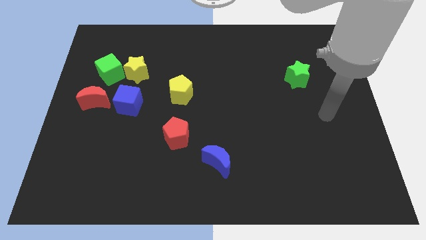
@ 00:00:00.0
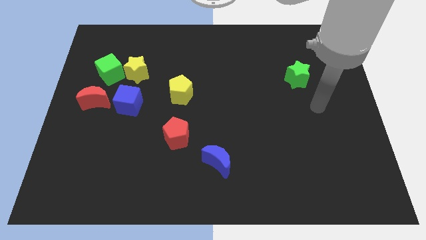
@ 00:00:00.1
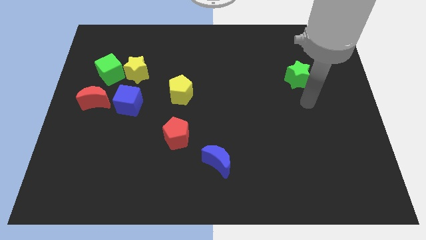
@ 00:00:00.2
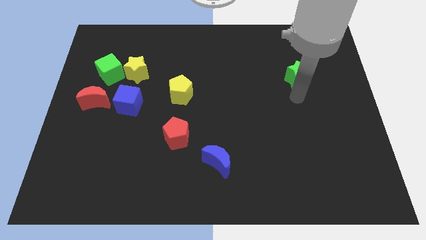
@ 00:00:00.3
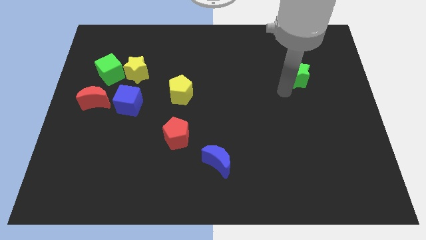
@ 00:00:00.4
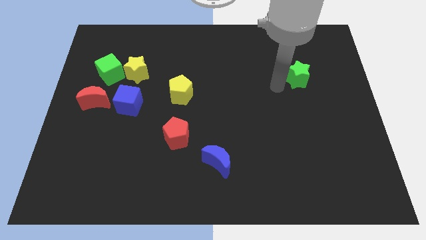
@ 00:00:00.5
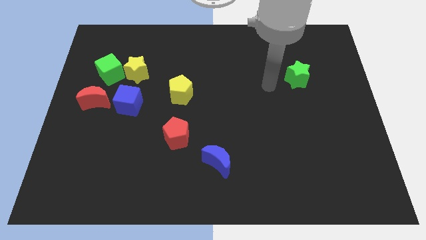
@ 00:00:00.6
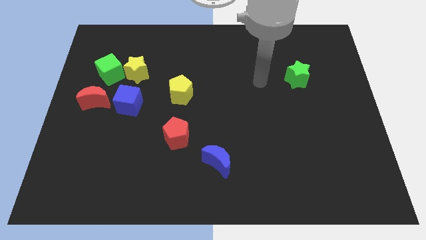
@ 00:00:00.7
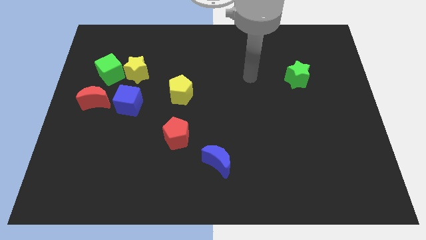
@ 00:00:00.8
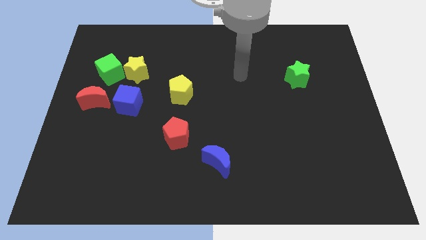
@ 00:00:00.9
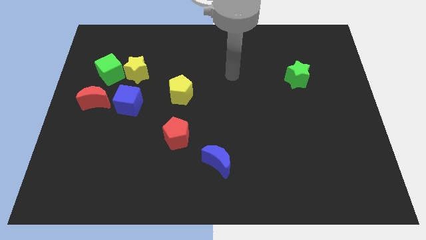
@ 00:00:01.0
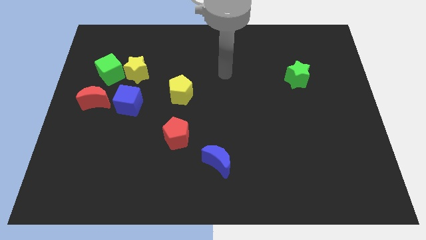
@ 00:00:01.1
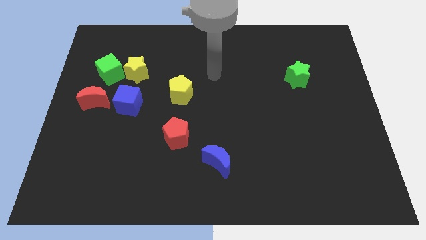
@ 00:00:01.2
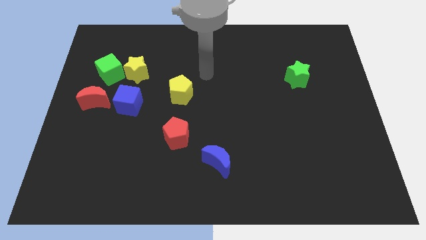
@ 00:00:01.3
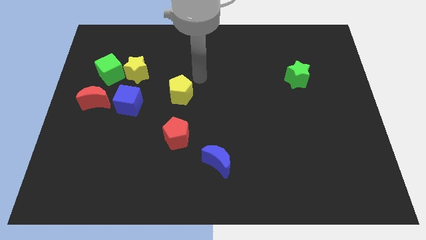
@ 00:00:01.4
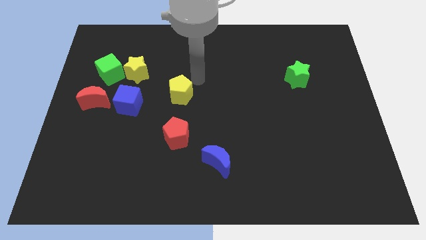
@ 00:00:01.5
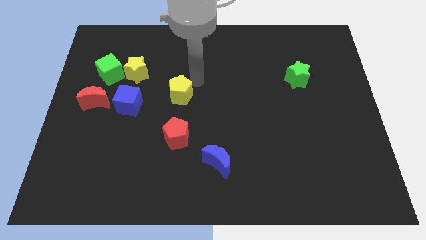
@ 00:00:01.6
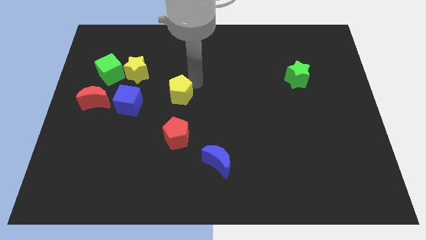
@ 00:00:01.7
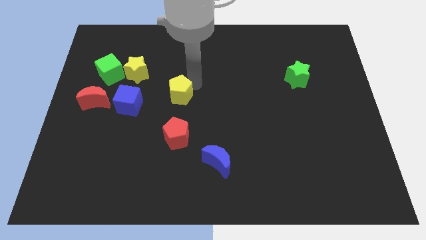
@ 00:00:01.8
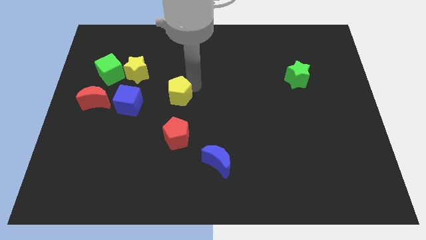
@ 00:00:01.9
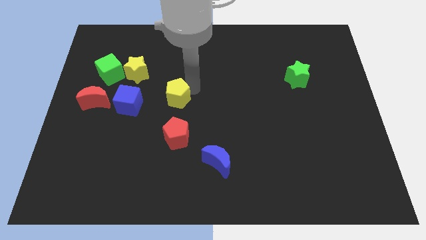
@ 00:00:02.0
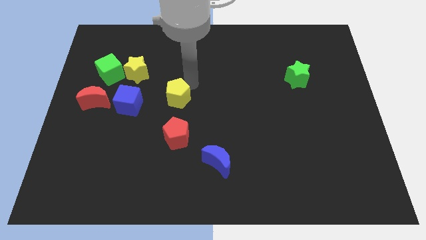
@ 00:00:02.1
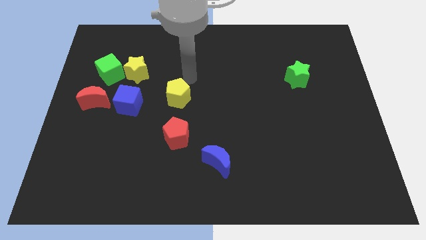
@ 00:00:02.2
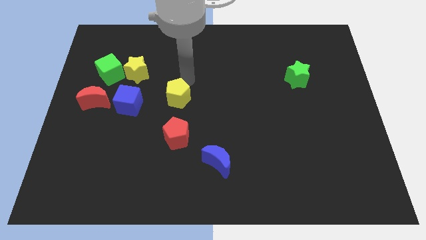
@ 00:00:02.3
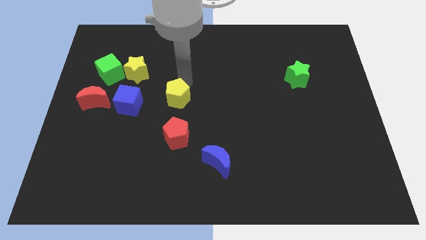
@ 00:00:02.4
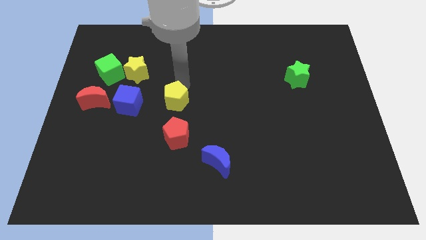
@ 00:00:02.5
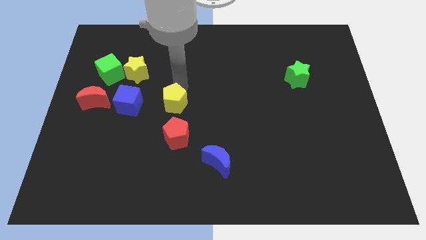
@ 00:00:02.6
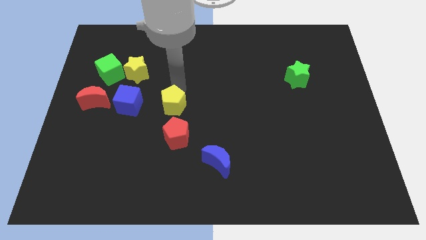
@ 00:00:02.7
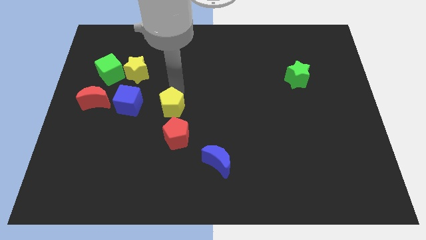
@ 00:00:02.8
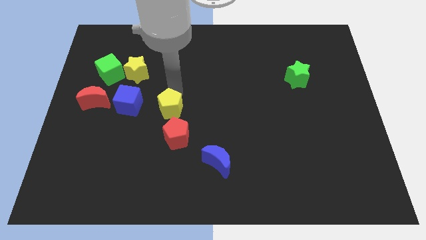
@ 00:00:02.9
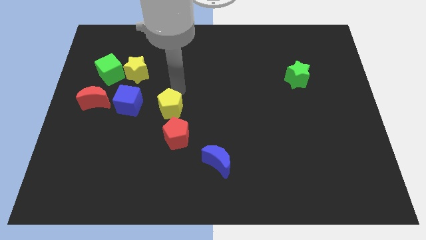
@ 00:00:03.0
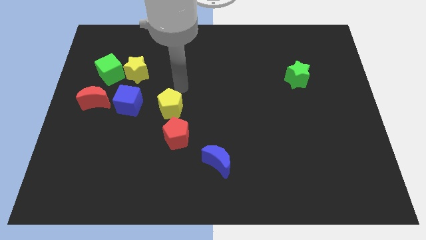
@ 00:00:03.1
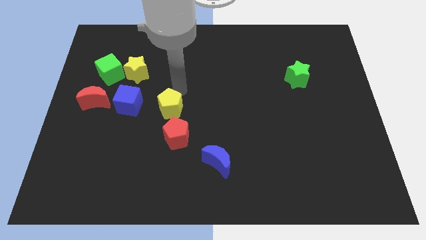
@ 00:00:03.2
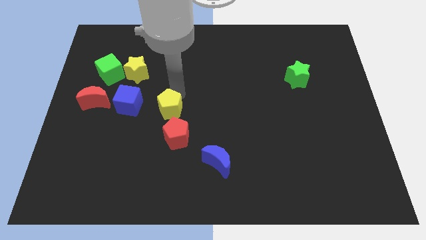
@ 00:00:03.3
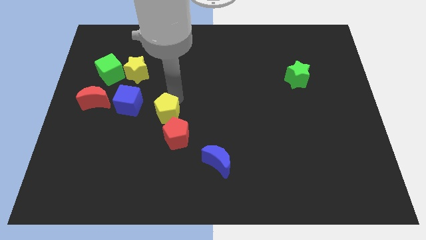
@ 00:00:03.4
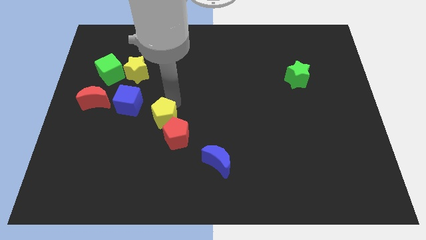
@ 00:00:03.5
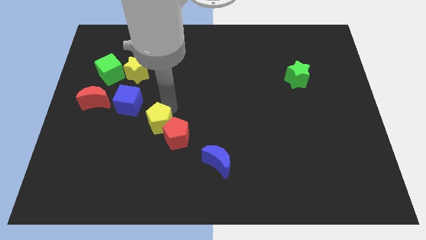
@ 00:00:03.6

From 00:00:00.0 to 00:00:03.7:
push the yellow pentagon down somewhat

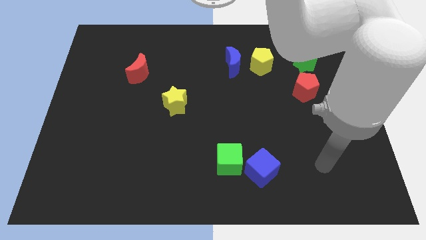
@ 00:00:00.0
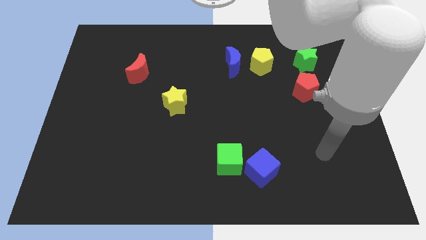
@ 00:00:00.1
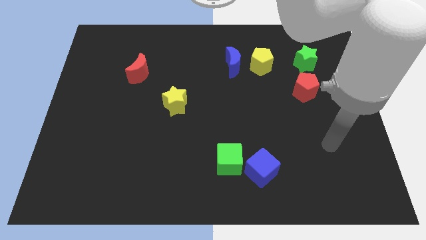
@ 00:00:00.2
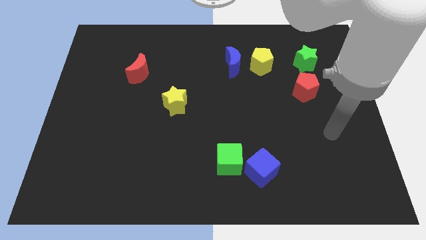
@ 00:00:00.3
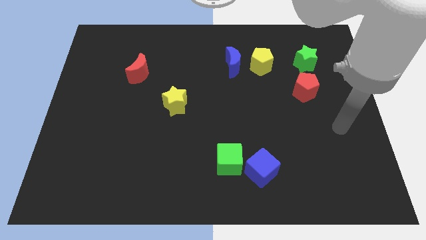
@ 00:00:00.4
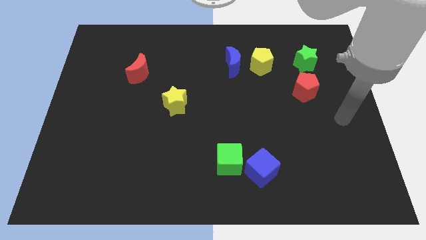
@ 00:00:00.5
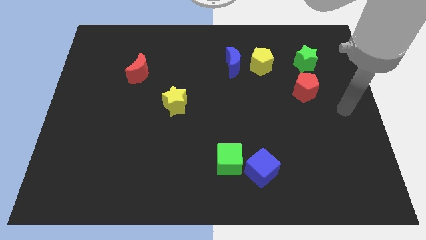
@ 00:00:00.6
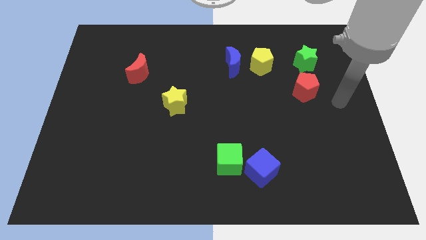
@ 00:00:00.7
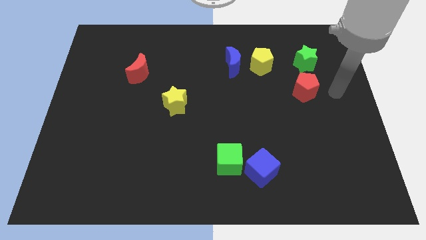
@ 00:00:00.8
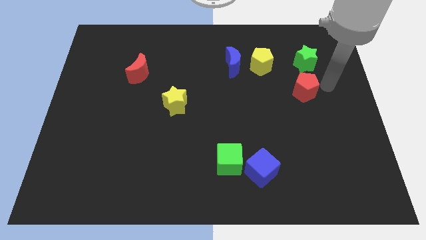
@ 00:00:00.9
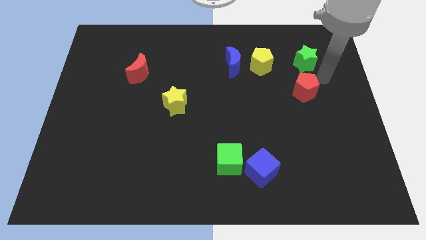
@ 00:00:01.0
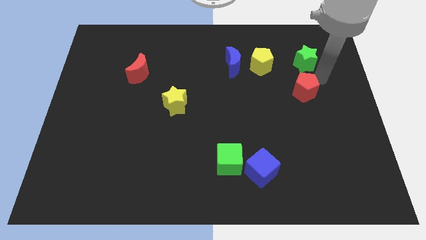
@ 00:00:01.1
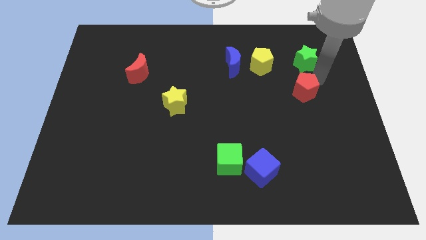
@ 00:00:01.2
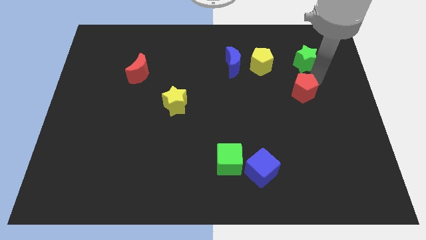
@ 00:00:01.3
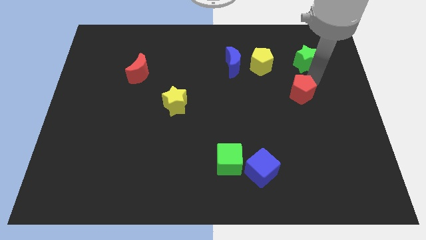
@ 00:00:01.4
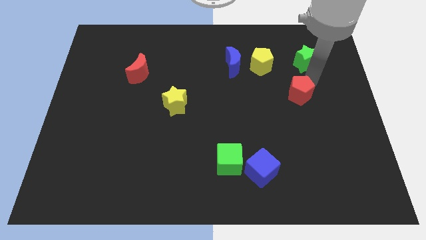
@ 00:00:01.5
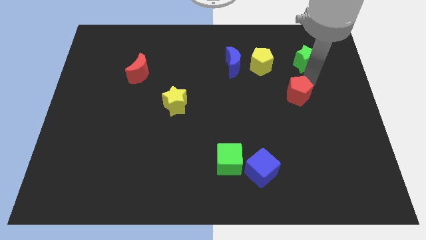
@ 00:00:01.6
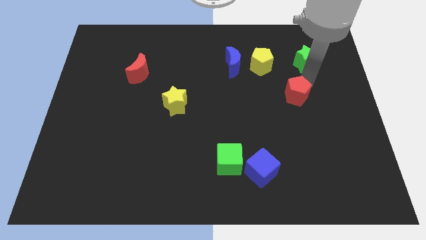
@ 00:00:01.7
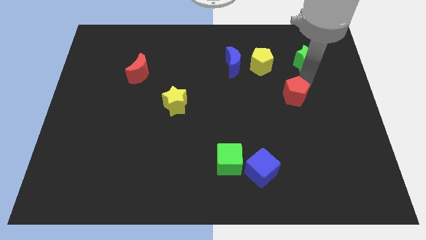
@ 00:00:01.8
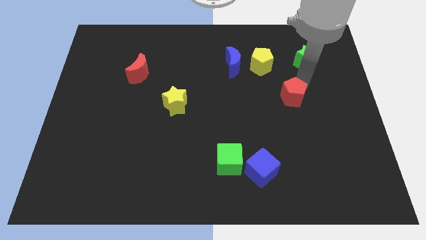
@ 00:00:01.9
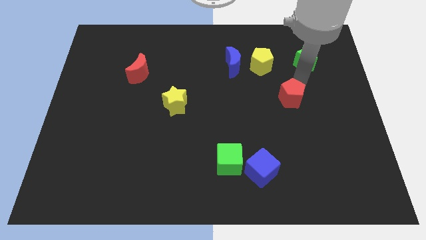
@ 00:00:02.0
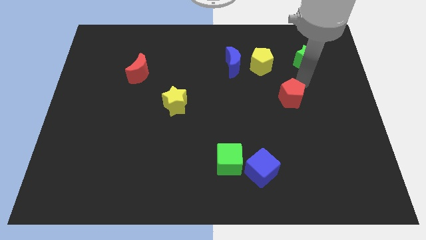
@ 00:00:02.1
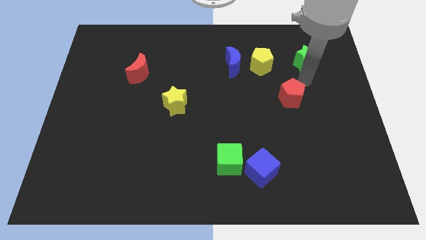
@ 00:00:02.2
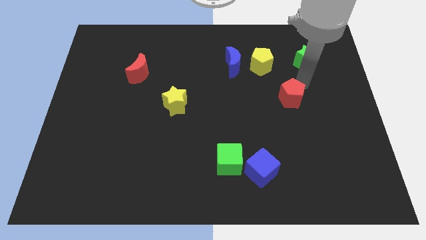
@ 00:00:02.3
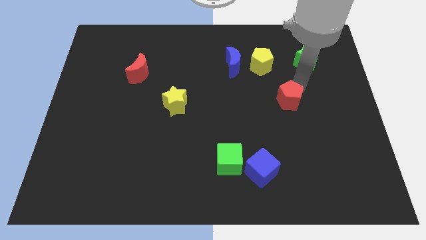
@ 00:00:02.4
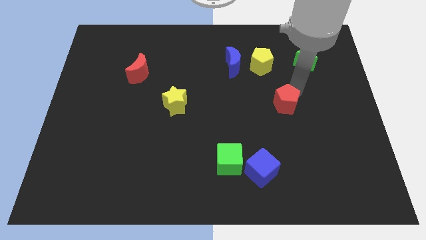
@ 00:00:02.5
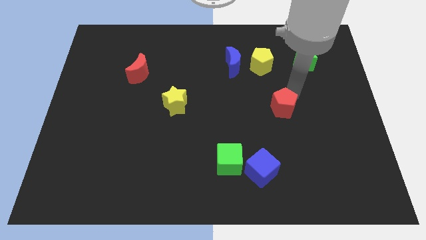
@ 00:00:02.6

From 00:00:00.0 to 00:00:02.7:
slightly slide the red pentagon downwards and then to the left

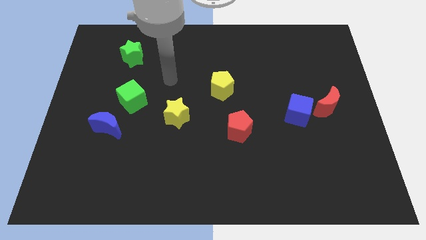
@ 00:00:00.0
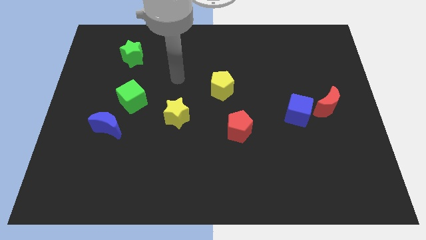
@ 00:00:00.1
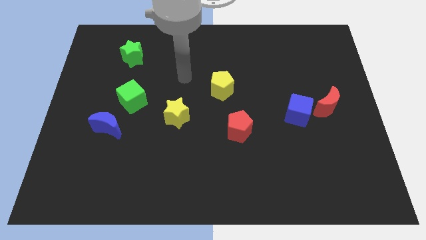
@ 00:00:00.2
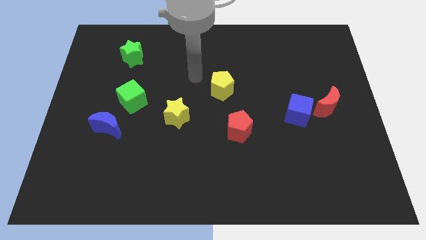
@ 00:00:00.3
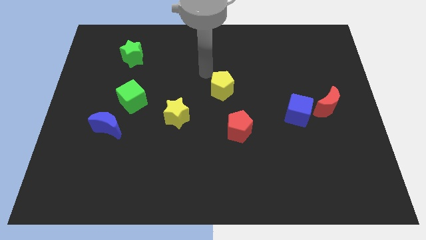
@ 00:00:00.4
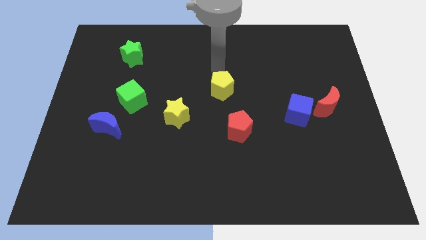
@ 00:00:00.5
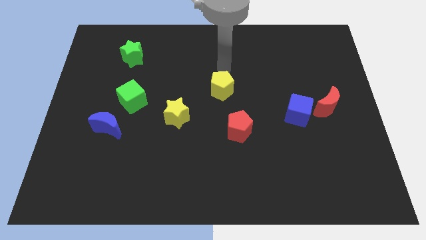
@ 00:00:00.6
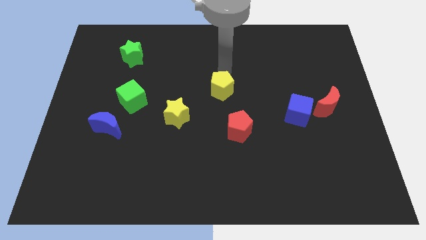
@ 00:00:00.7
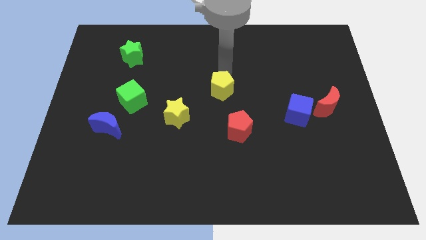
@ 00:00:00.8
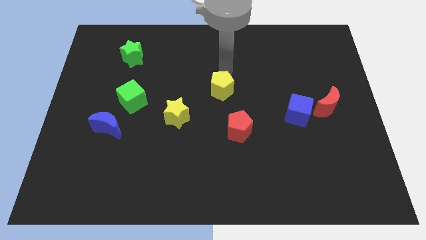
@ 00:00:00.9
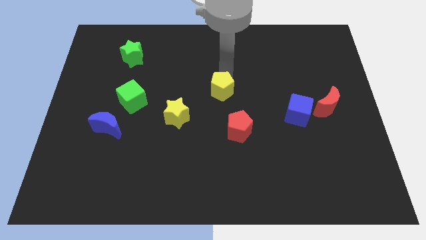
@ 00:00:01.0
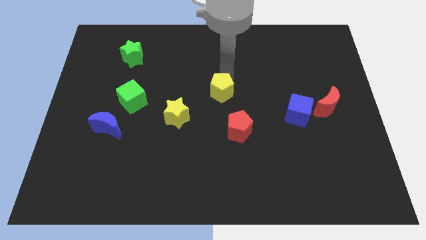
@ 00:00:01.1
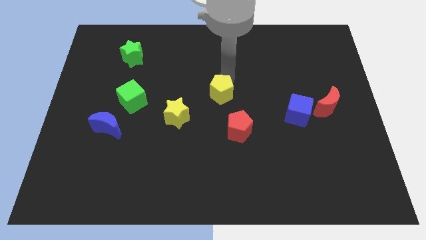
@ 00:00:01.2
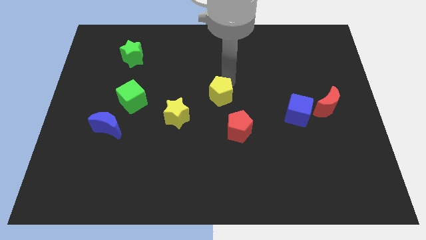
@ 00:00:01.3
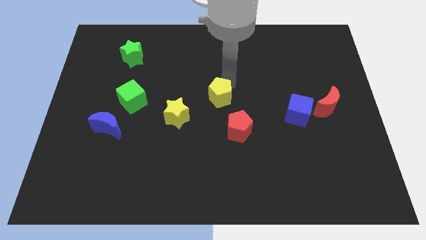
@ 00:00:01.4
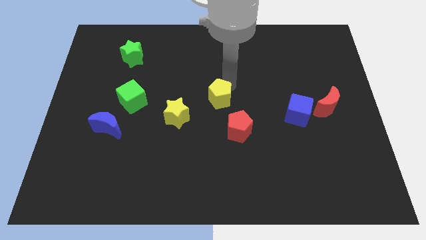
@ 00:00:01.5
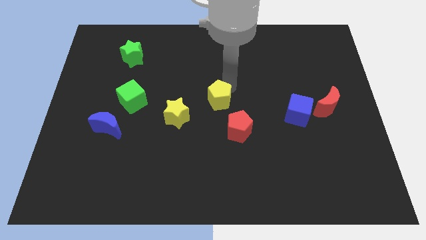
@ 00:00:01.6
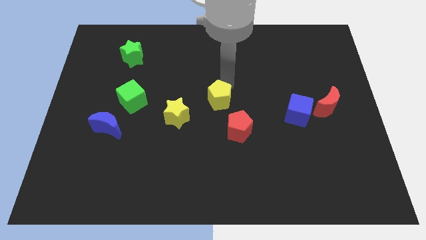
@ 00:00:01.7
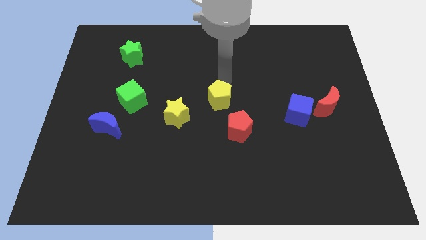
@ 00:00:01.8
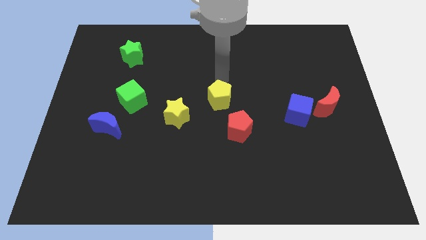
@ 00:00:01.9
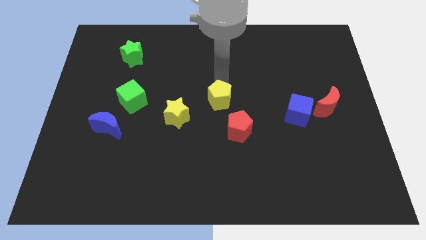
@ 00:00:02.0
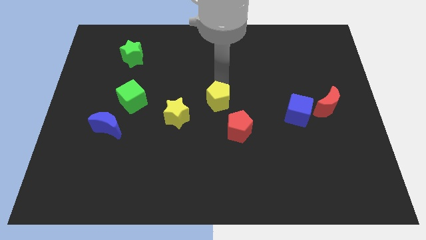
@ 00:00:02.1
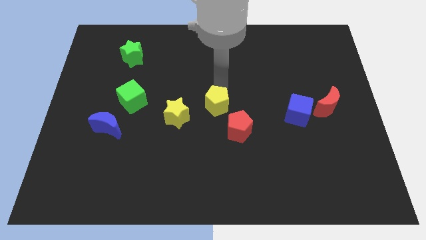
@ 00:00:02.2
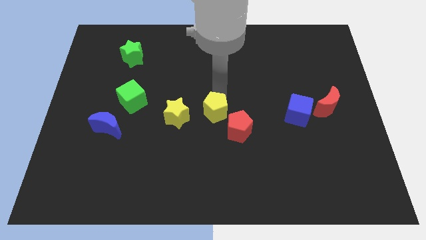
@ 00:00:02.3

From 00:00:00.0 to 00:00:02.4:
slightly slide the yellow pentagon downwards
